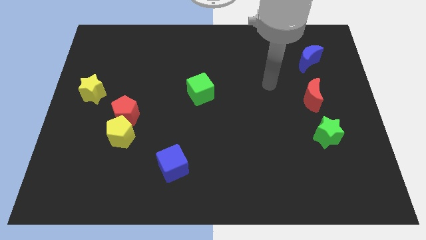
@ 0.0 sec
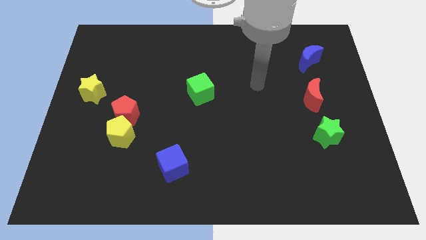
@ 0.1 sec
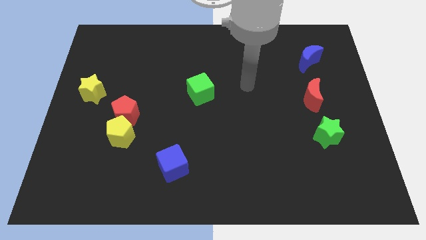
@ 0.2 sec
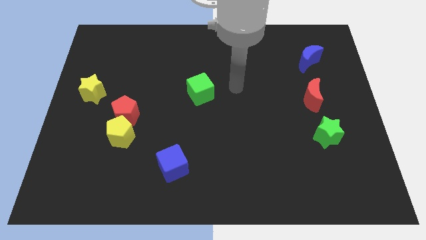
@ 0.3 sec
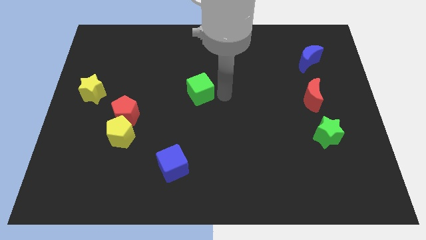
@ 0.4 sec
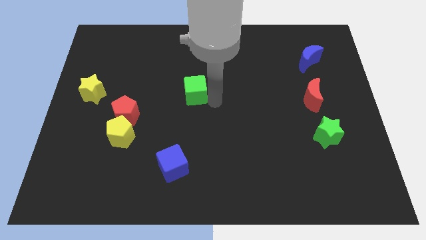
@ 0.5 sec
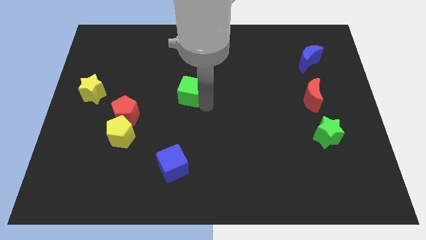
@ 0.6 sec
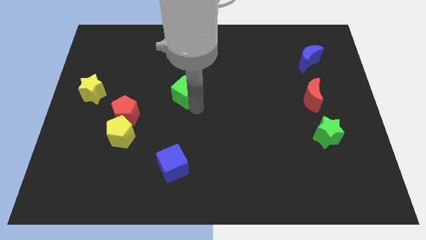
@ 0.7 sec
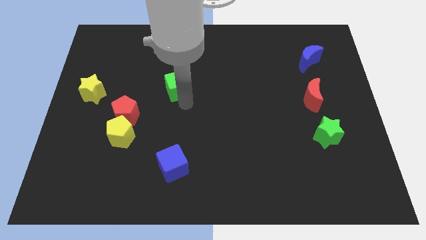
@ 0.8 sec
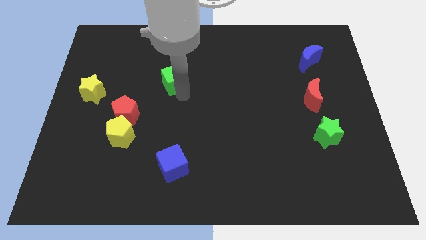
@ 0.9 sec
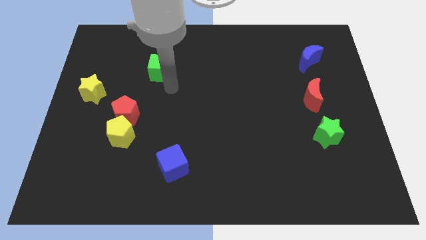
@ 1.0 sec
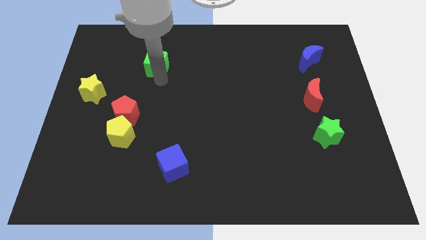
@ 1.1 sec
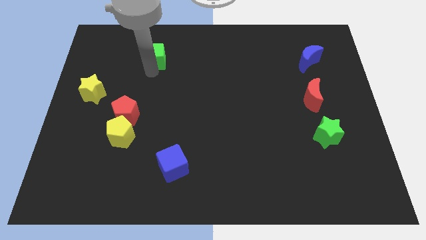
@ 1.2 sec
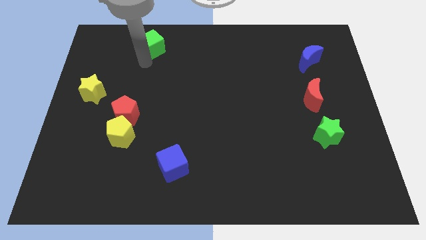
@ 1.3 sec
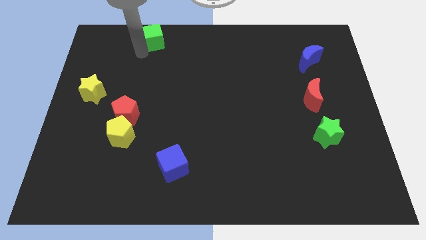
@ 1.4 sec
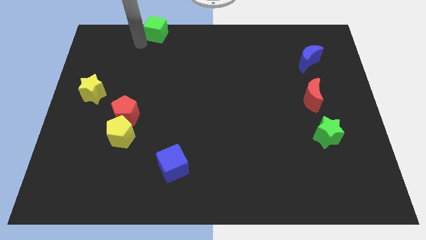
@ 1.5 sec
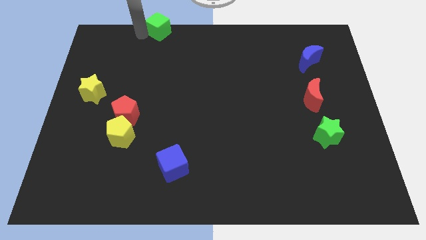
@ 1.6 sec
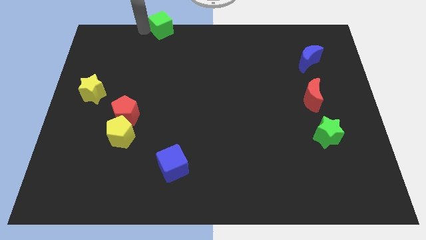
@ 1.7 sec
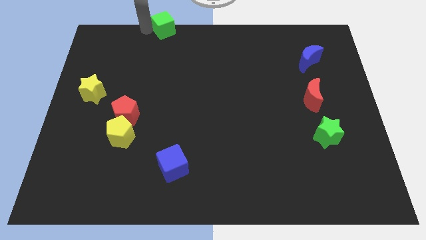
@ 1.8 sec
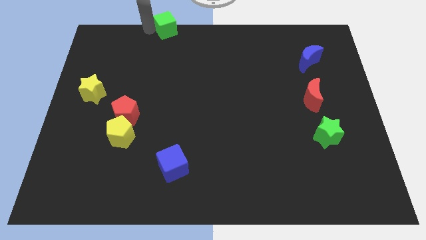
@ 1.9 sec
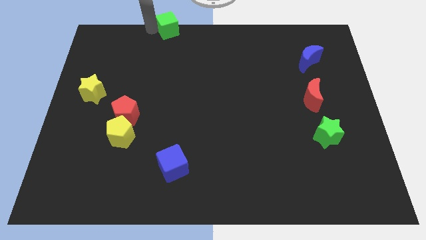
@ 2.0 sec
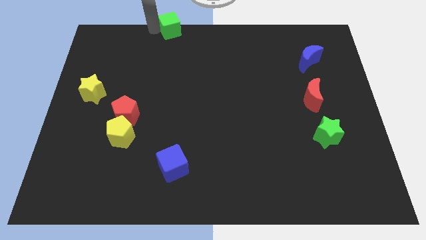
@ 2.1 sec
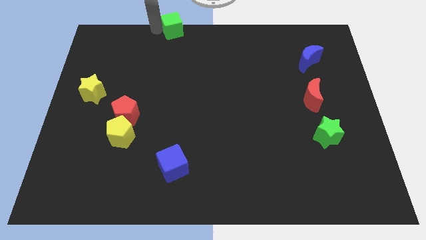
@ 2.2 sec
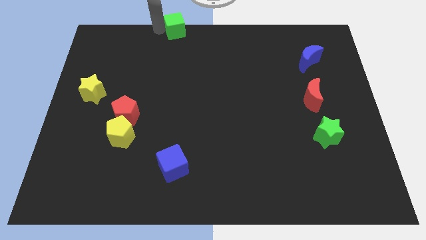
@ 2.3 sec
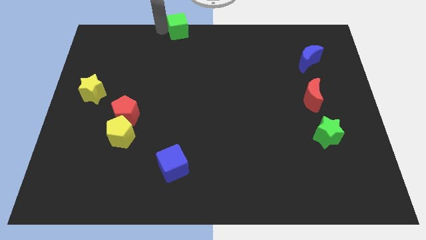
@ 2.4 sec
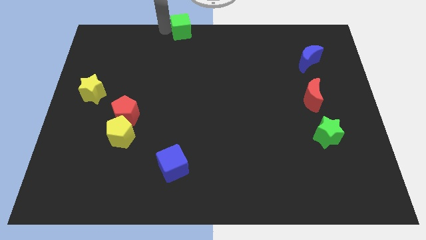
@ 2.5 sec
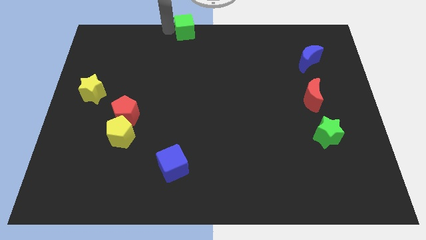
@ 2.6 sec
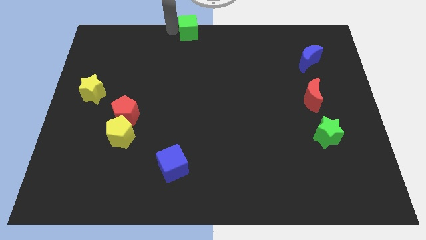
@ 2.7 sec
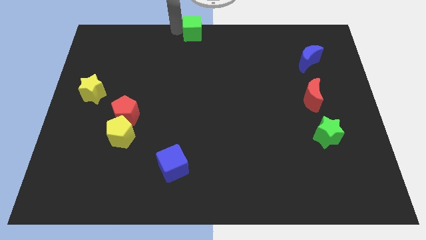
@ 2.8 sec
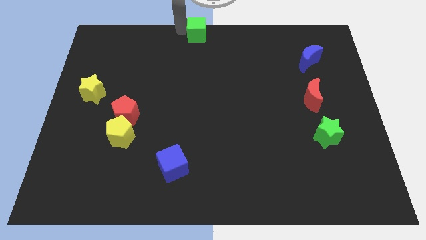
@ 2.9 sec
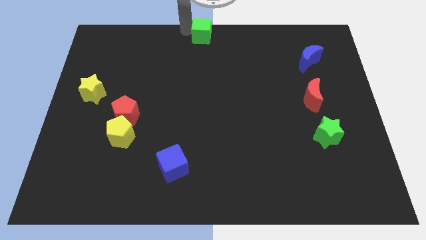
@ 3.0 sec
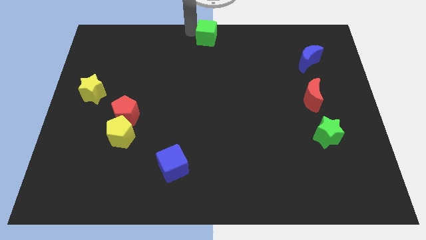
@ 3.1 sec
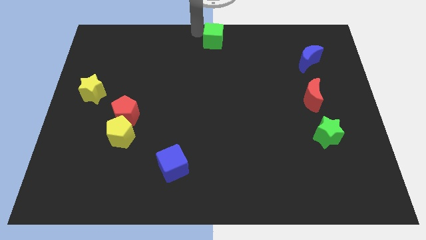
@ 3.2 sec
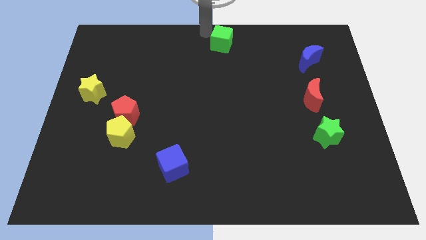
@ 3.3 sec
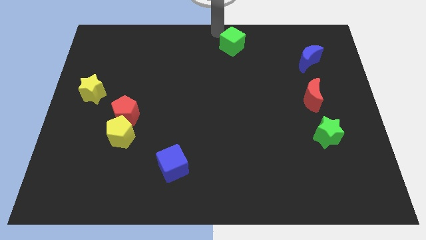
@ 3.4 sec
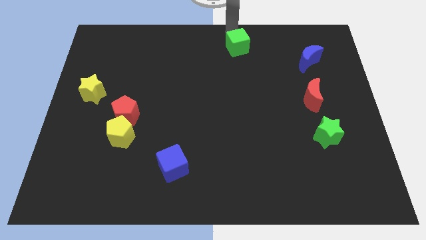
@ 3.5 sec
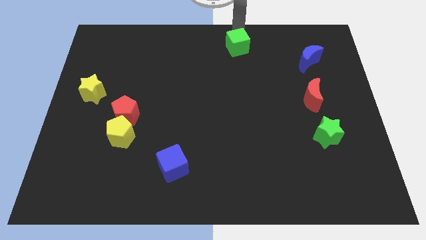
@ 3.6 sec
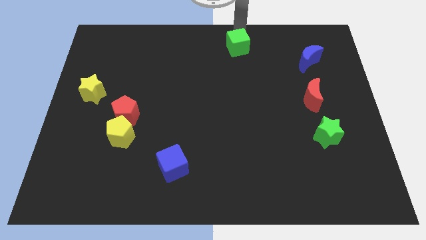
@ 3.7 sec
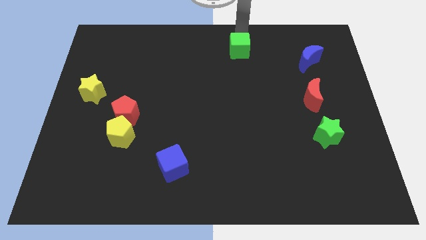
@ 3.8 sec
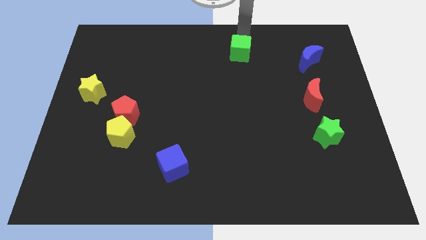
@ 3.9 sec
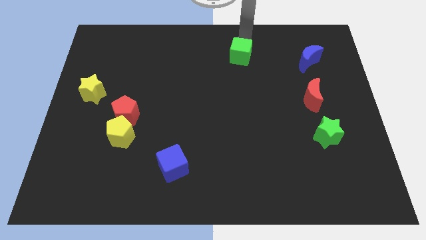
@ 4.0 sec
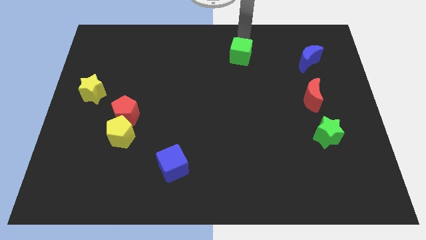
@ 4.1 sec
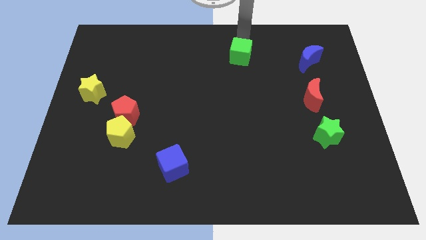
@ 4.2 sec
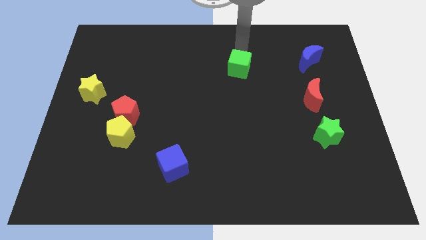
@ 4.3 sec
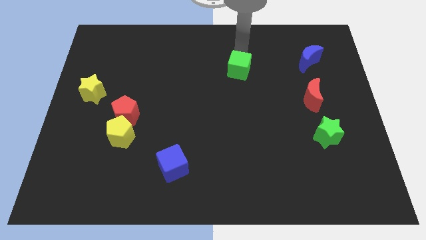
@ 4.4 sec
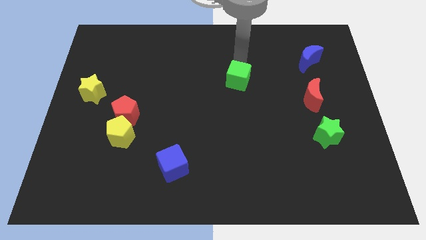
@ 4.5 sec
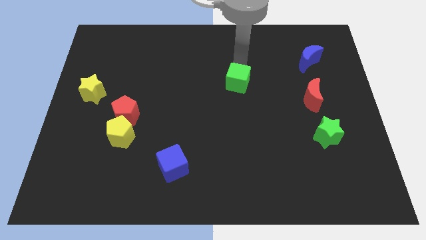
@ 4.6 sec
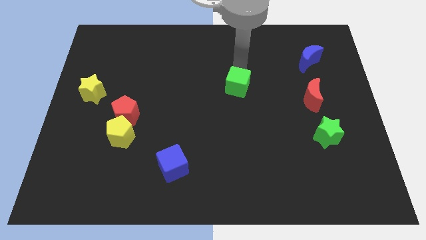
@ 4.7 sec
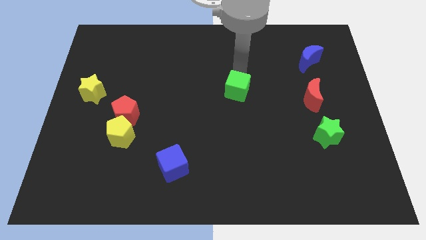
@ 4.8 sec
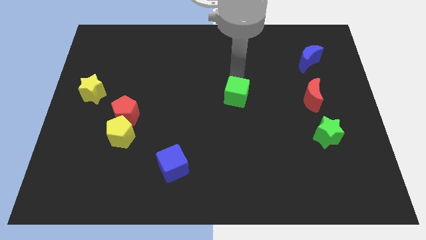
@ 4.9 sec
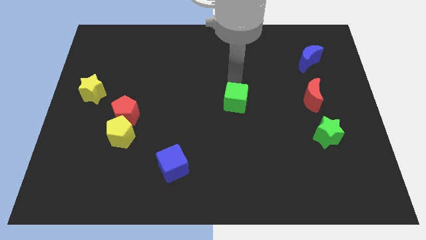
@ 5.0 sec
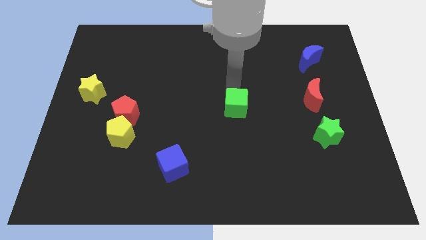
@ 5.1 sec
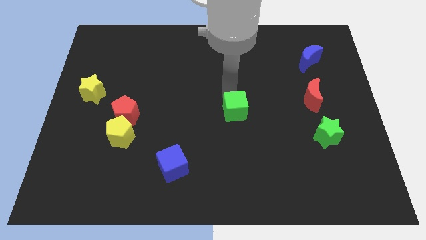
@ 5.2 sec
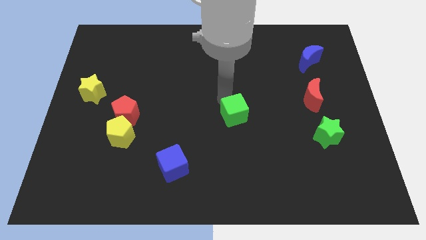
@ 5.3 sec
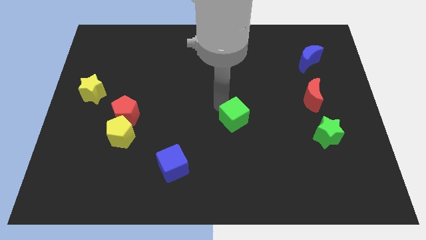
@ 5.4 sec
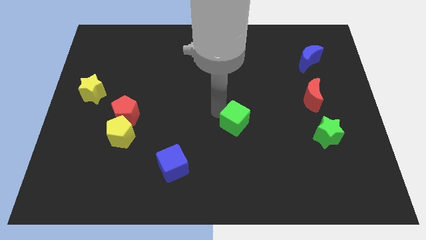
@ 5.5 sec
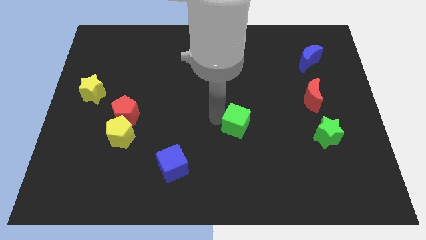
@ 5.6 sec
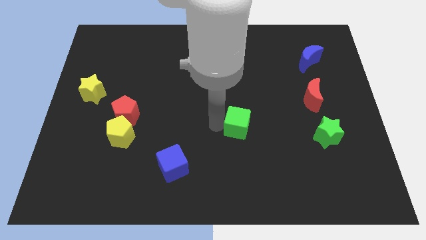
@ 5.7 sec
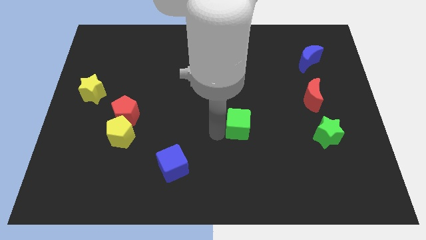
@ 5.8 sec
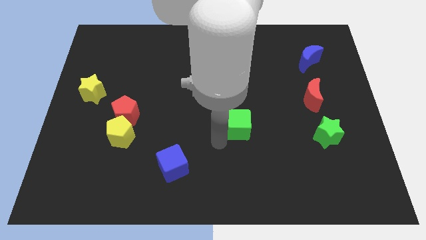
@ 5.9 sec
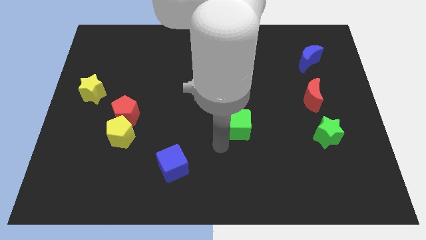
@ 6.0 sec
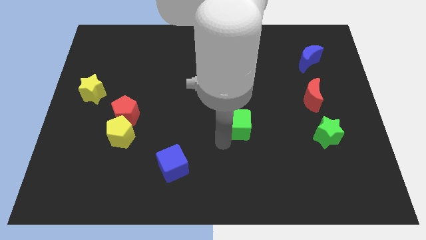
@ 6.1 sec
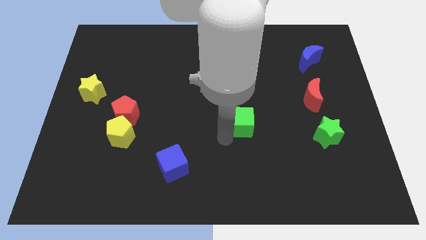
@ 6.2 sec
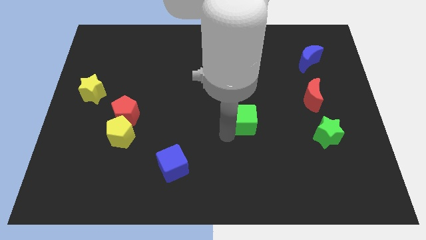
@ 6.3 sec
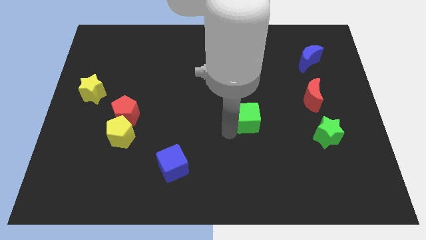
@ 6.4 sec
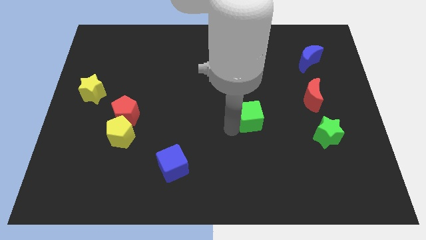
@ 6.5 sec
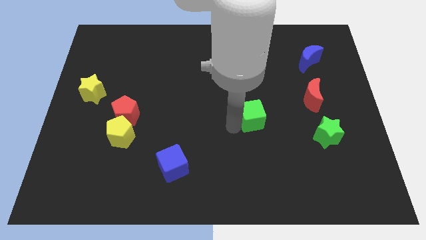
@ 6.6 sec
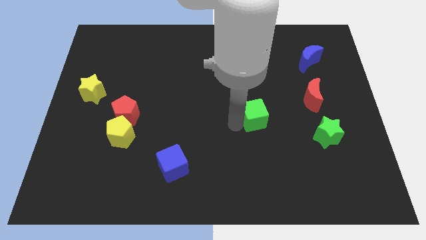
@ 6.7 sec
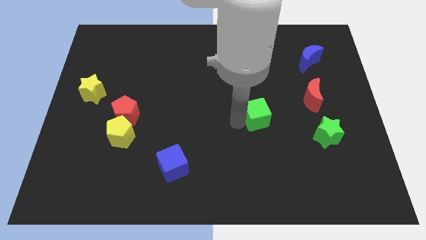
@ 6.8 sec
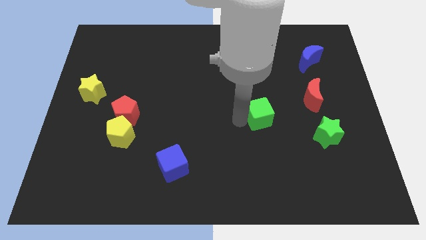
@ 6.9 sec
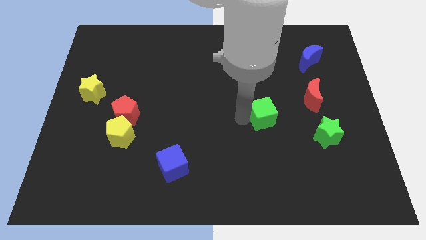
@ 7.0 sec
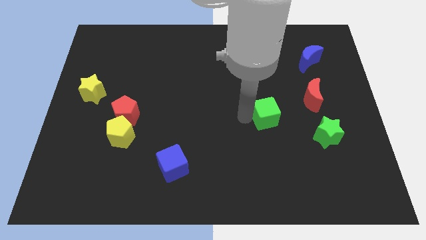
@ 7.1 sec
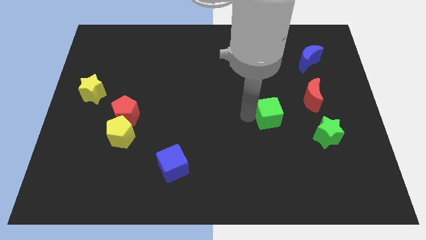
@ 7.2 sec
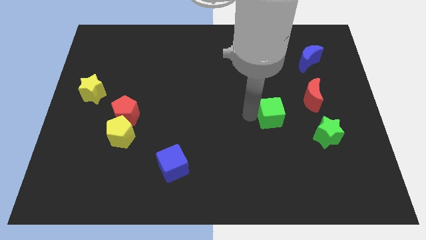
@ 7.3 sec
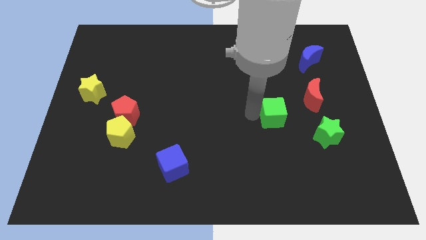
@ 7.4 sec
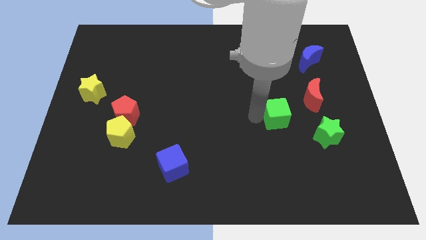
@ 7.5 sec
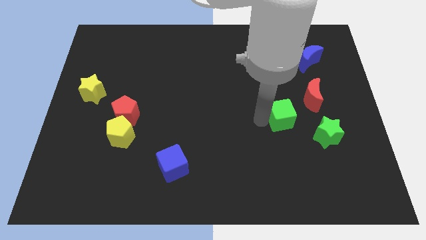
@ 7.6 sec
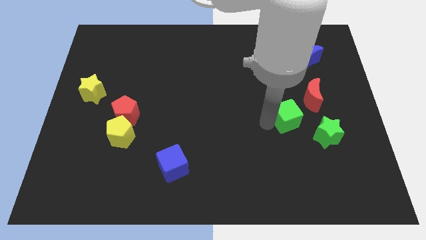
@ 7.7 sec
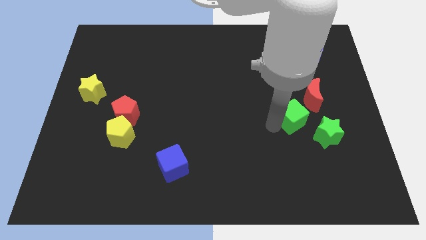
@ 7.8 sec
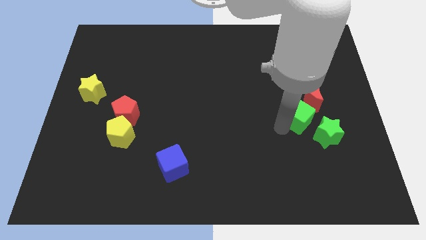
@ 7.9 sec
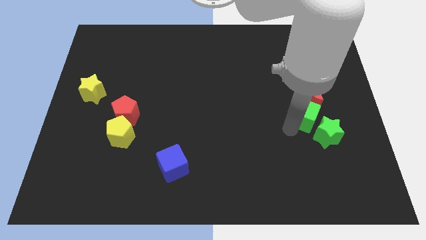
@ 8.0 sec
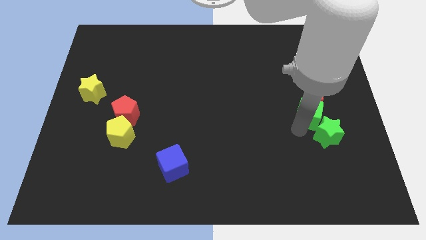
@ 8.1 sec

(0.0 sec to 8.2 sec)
push the green cube towards the red moon
